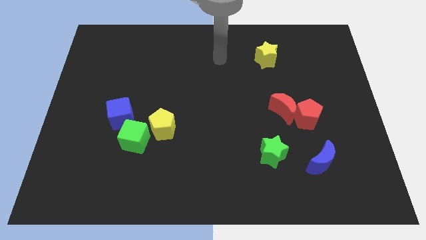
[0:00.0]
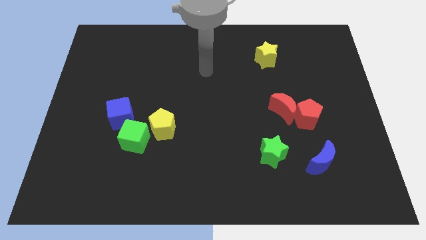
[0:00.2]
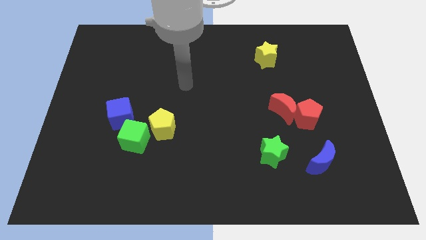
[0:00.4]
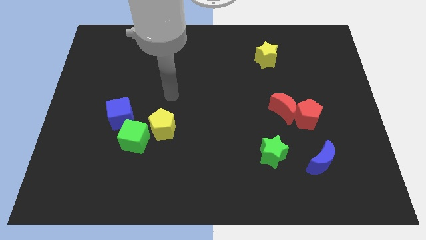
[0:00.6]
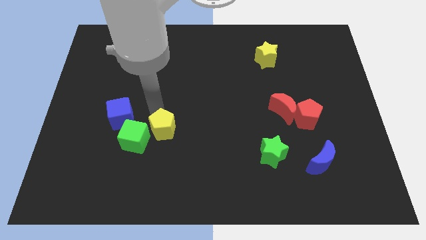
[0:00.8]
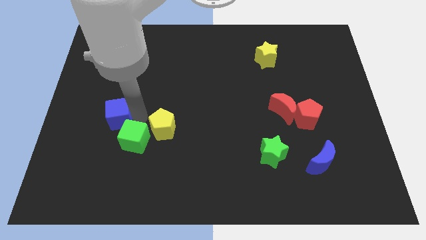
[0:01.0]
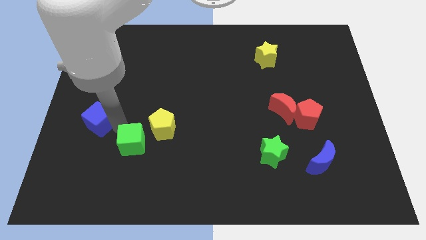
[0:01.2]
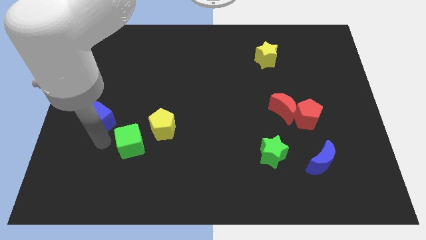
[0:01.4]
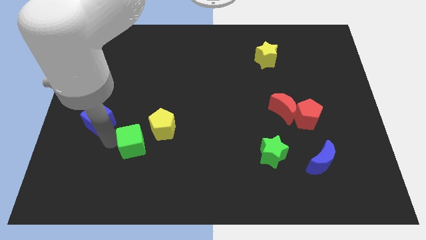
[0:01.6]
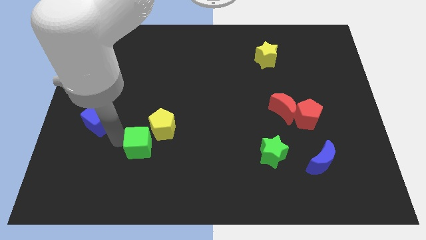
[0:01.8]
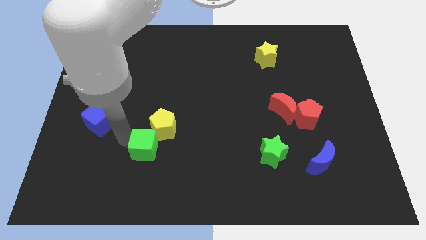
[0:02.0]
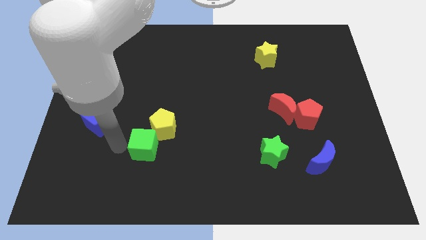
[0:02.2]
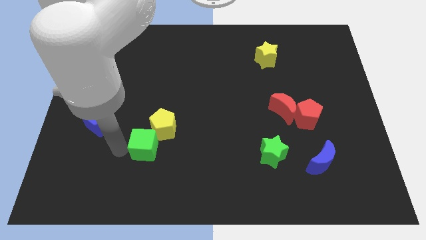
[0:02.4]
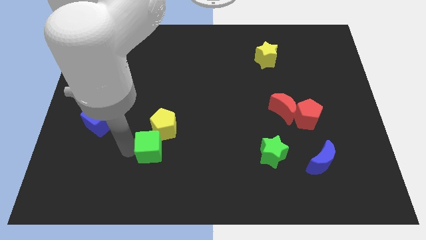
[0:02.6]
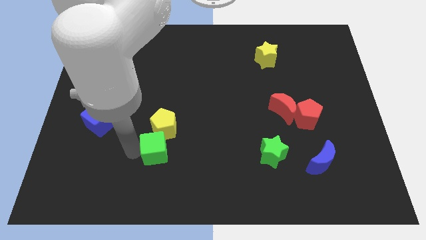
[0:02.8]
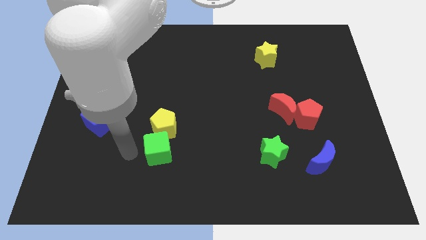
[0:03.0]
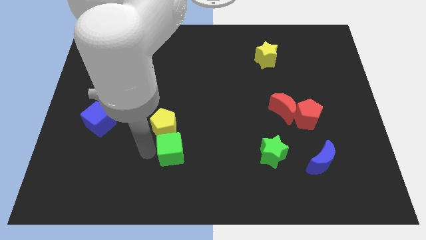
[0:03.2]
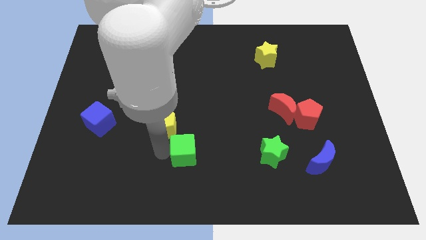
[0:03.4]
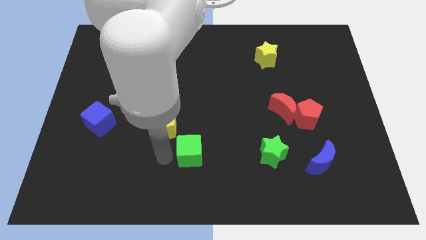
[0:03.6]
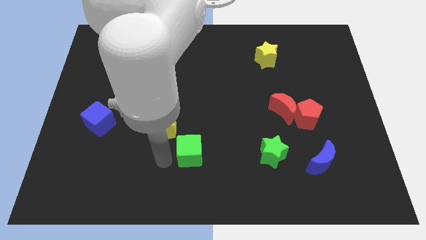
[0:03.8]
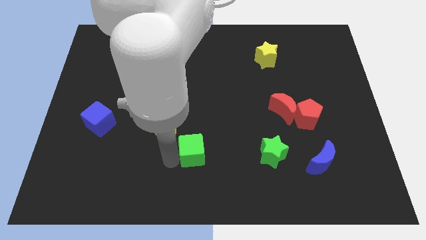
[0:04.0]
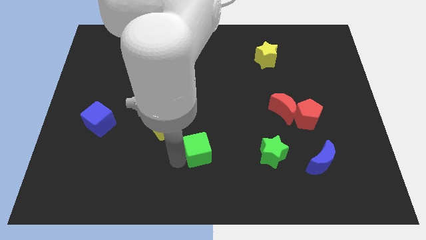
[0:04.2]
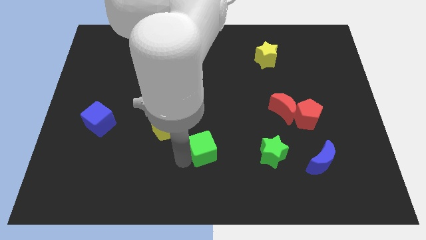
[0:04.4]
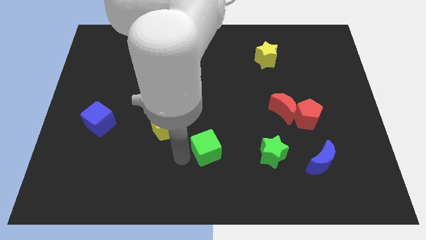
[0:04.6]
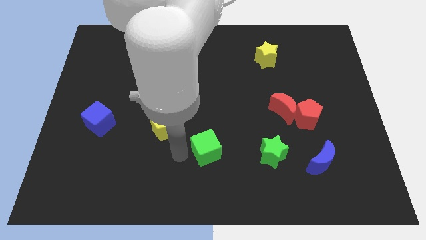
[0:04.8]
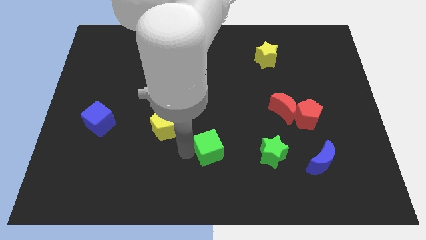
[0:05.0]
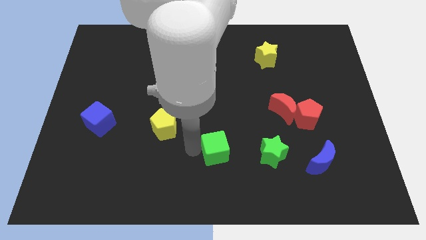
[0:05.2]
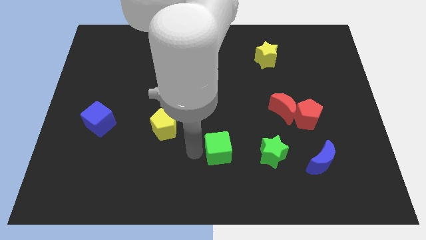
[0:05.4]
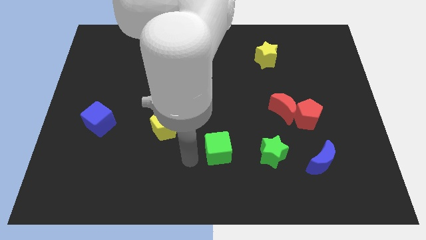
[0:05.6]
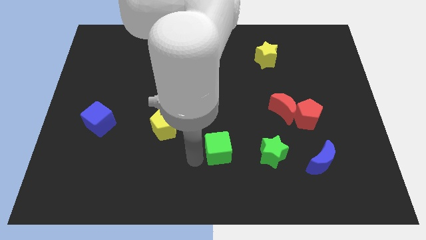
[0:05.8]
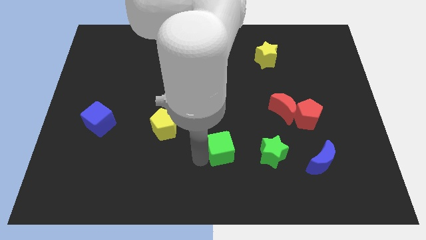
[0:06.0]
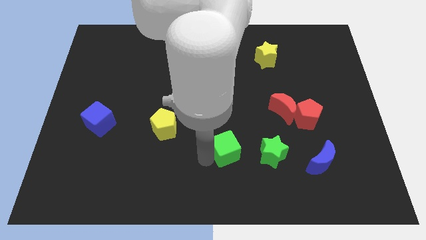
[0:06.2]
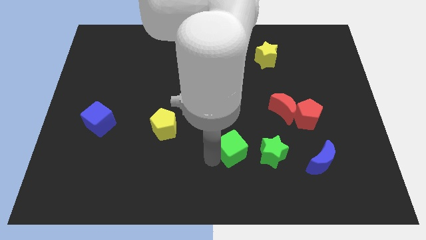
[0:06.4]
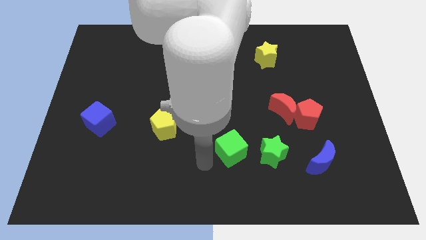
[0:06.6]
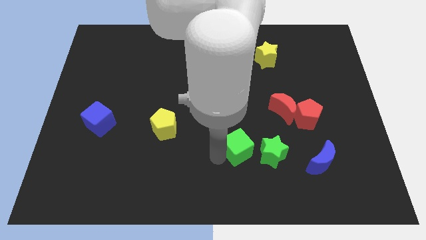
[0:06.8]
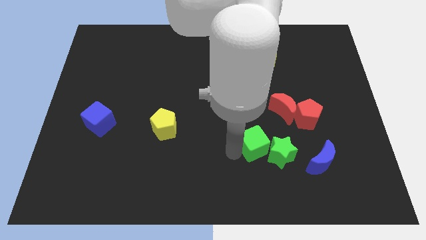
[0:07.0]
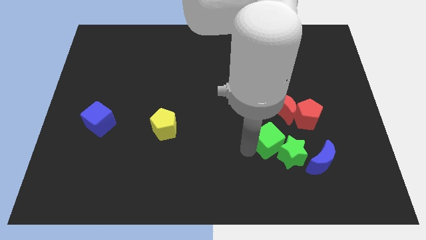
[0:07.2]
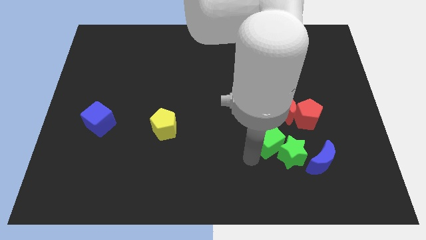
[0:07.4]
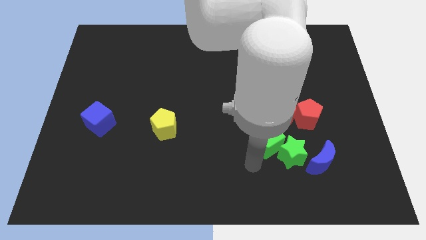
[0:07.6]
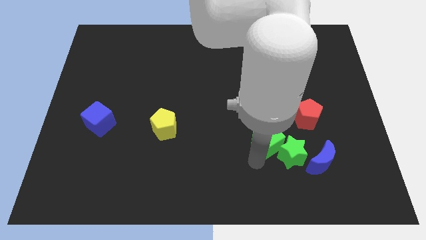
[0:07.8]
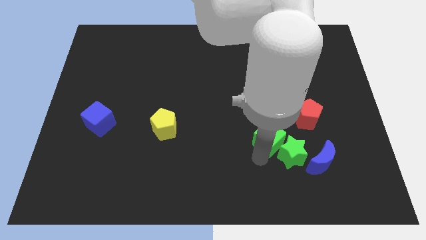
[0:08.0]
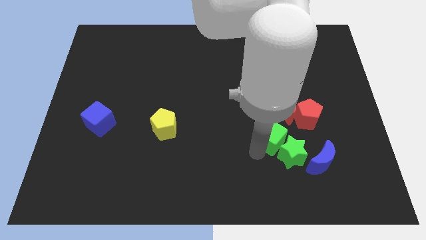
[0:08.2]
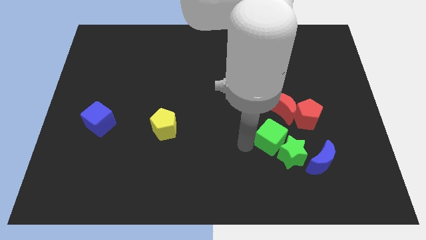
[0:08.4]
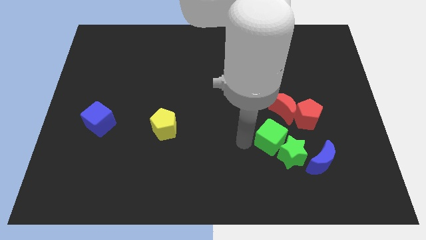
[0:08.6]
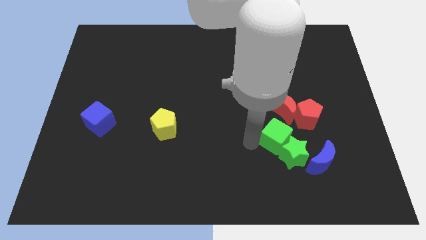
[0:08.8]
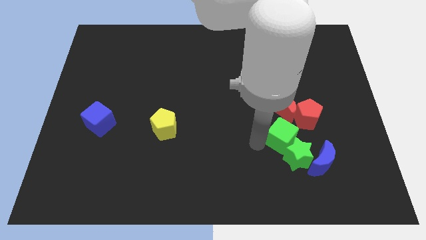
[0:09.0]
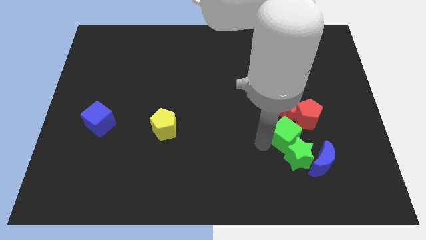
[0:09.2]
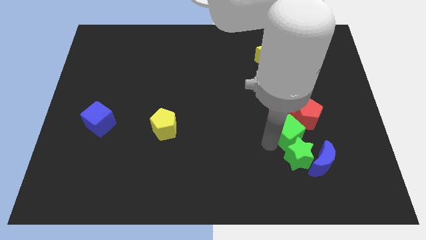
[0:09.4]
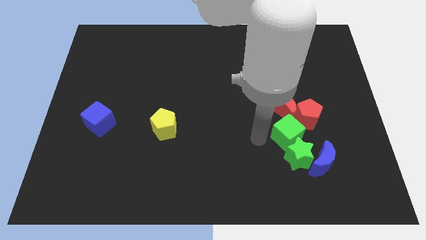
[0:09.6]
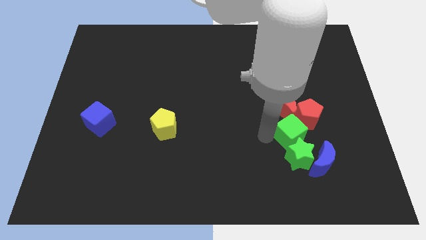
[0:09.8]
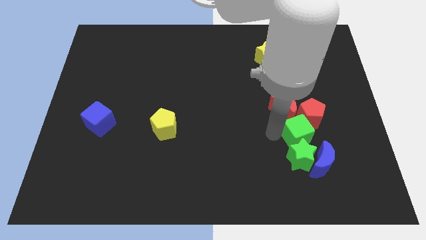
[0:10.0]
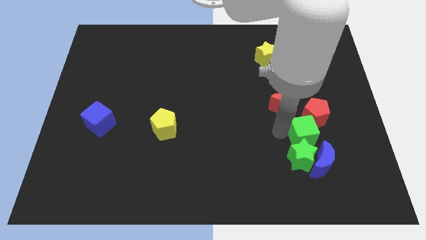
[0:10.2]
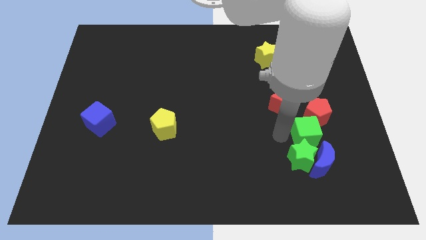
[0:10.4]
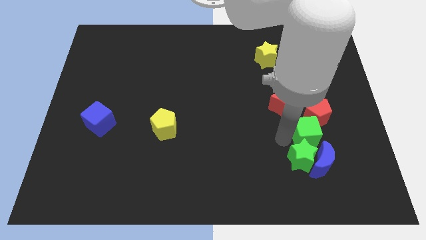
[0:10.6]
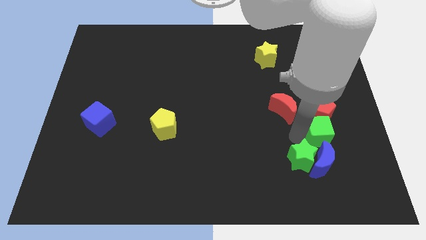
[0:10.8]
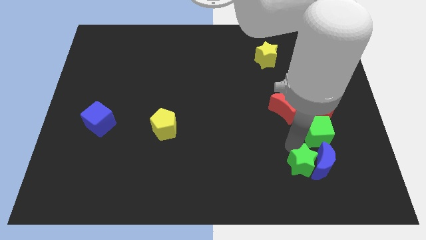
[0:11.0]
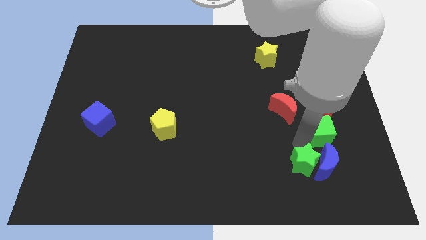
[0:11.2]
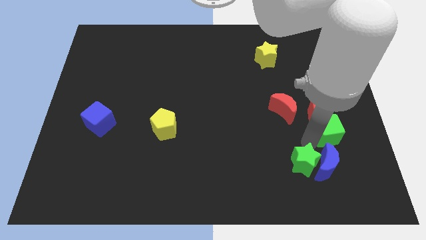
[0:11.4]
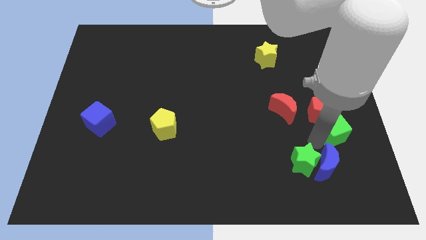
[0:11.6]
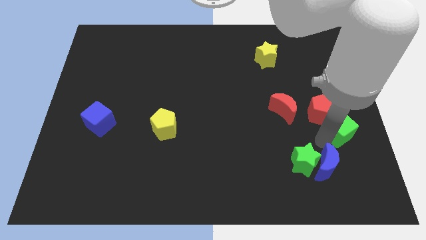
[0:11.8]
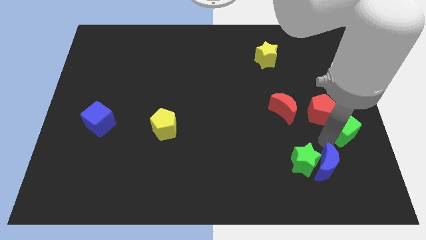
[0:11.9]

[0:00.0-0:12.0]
slide the green cube to the right side of the board
